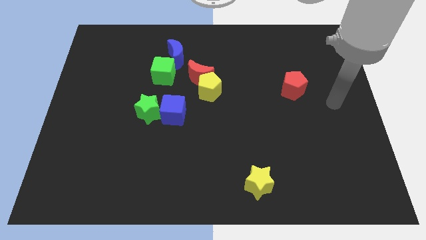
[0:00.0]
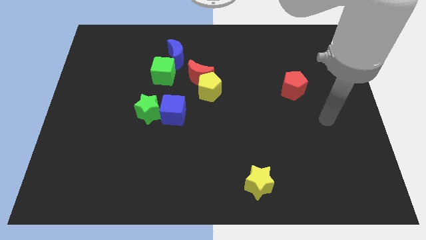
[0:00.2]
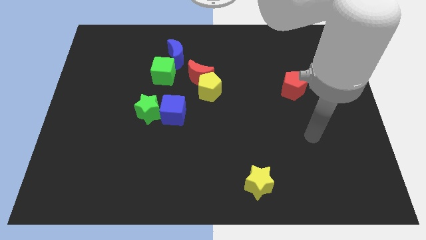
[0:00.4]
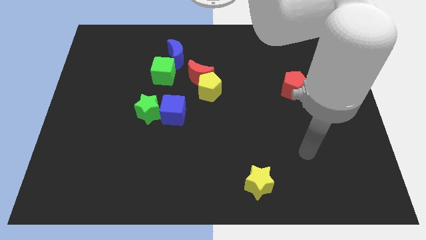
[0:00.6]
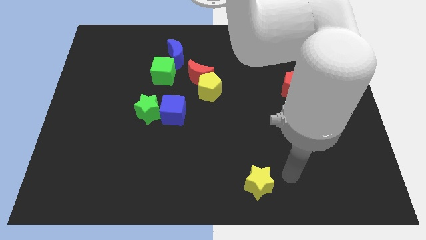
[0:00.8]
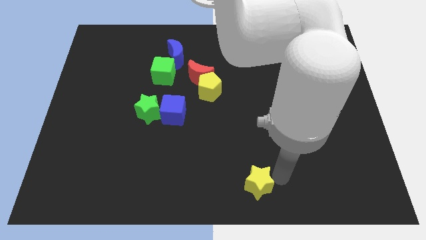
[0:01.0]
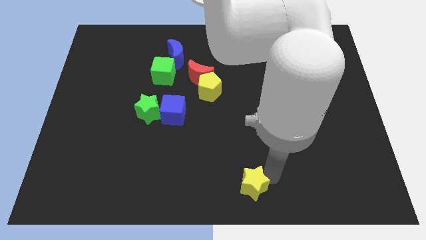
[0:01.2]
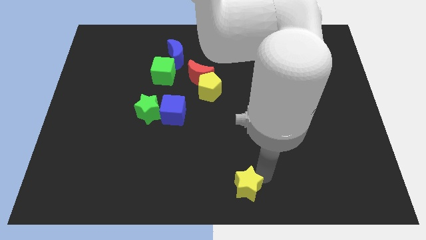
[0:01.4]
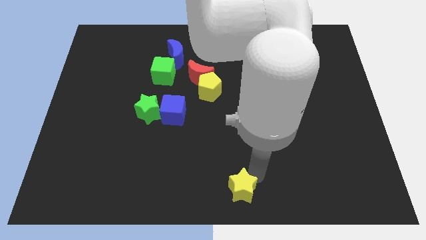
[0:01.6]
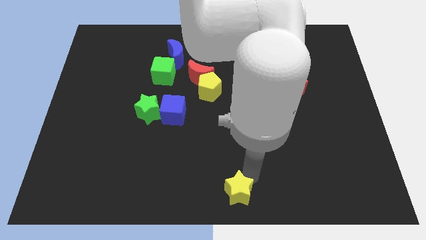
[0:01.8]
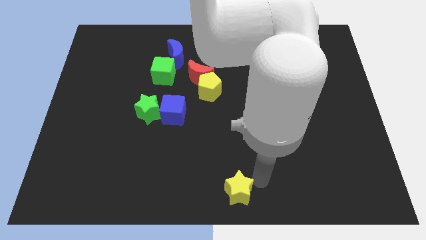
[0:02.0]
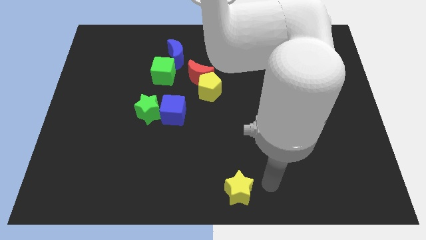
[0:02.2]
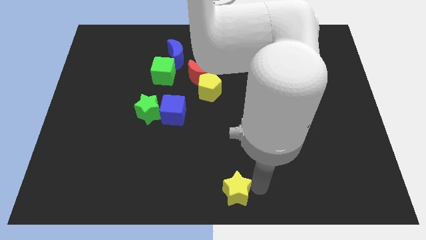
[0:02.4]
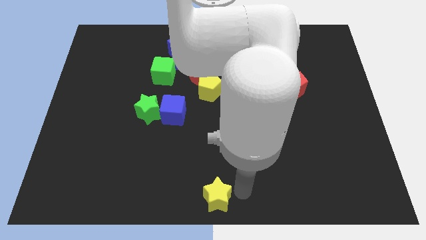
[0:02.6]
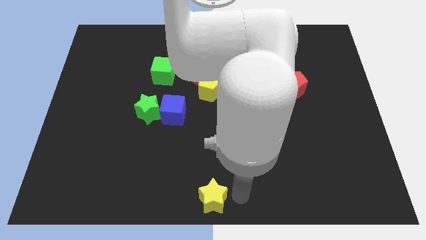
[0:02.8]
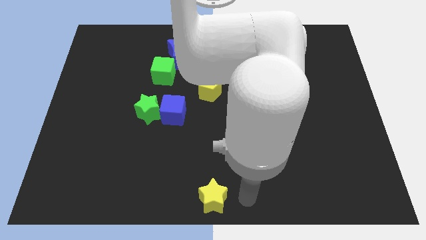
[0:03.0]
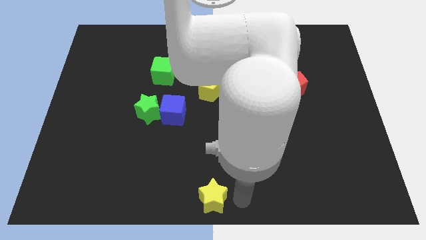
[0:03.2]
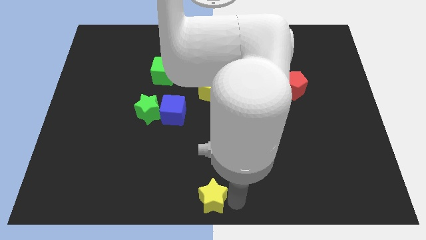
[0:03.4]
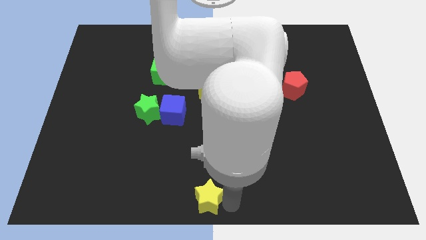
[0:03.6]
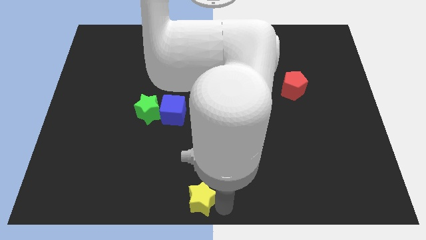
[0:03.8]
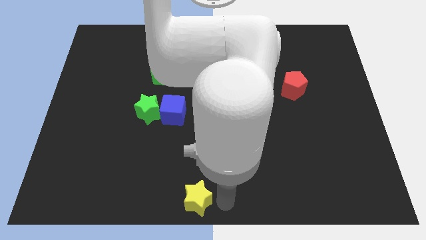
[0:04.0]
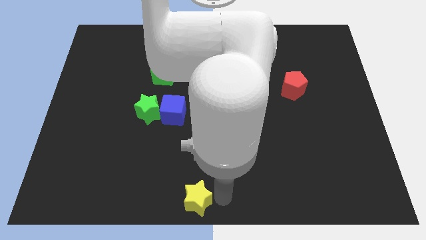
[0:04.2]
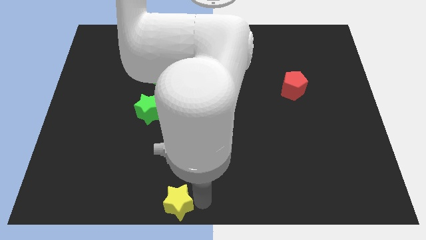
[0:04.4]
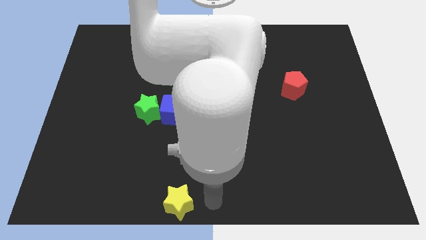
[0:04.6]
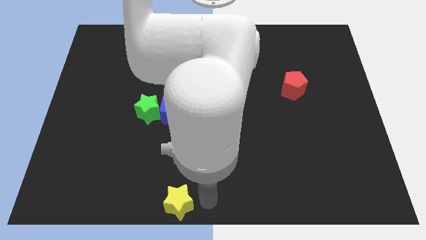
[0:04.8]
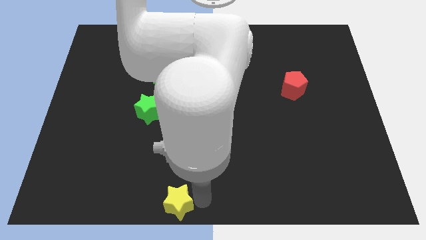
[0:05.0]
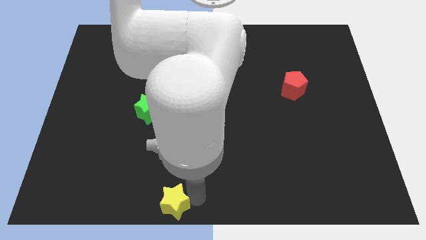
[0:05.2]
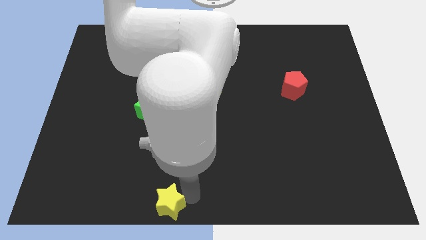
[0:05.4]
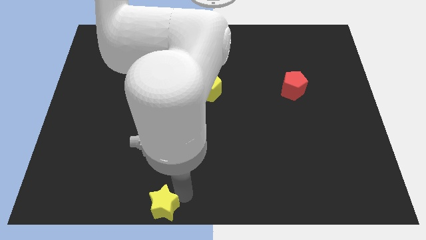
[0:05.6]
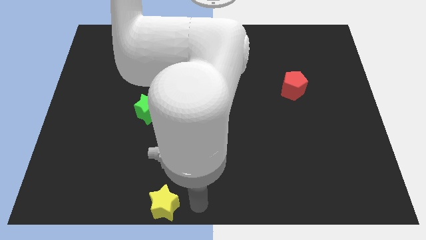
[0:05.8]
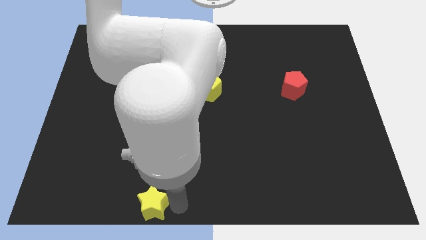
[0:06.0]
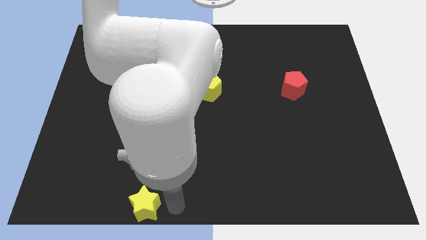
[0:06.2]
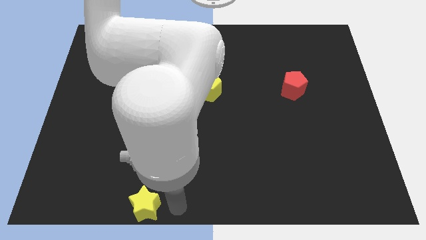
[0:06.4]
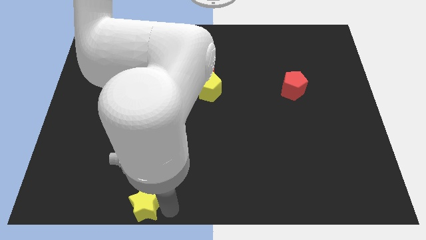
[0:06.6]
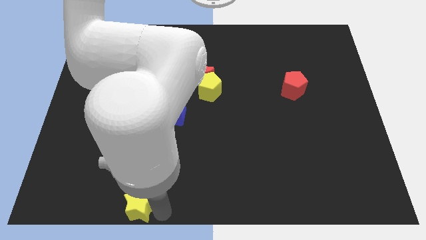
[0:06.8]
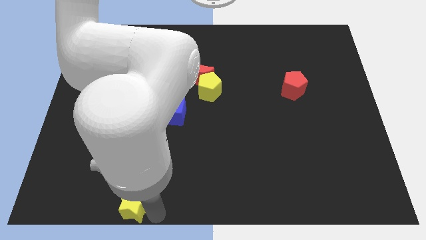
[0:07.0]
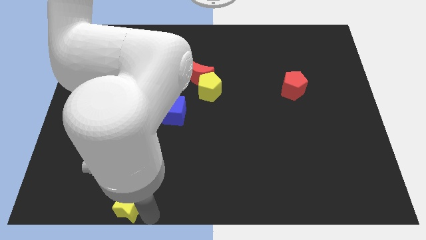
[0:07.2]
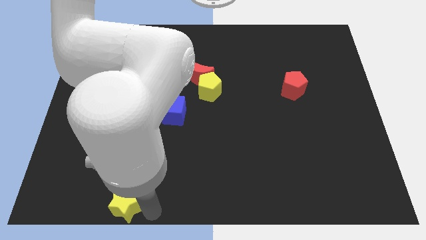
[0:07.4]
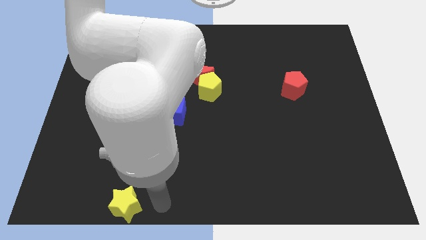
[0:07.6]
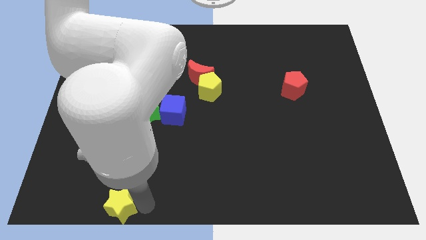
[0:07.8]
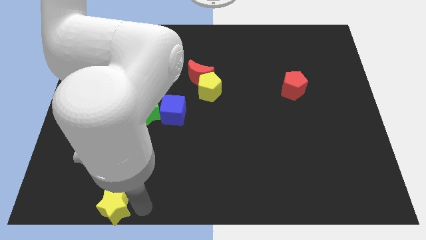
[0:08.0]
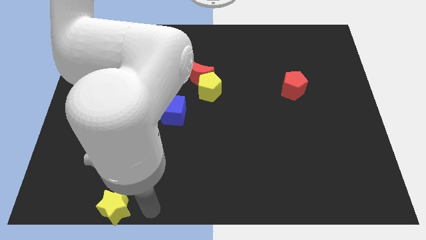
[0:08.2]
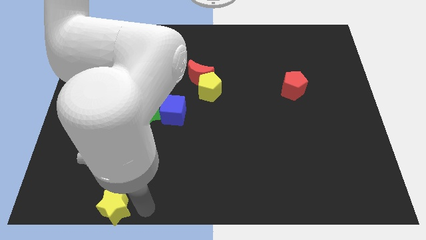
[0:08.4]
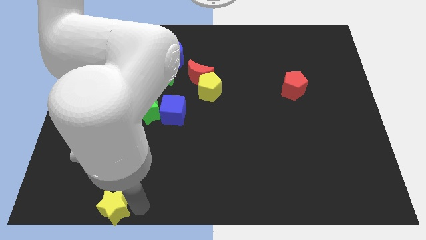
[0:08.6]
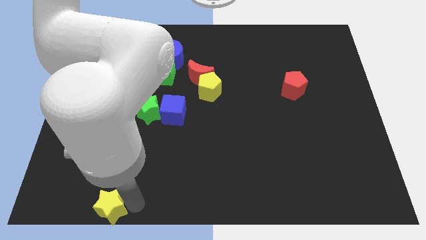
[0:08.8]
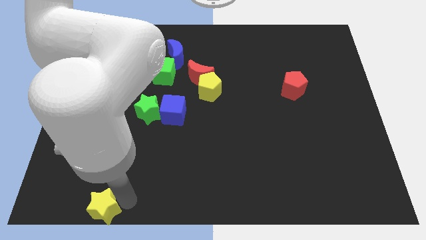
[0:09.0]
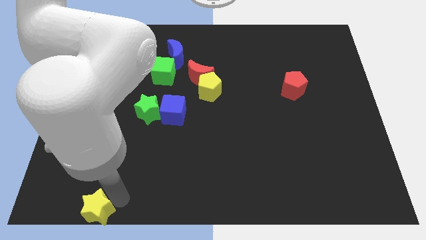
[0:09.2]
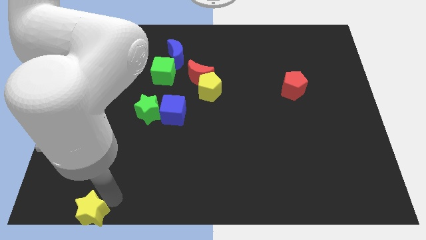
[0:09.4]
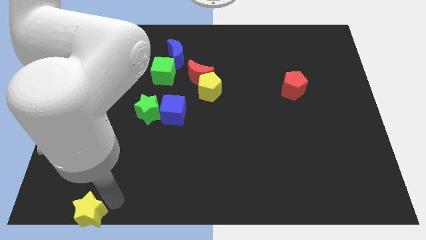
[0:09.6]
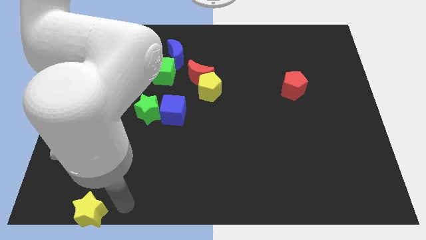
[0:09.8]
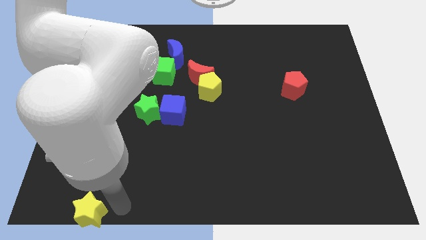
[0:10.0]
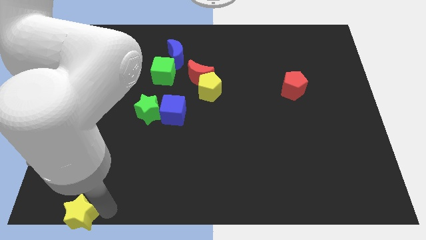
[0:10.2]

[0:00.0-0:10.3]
slide the yellow star to the bottom left

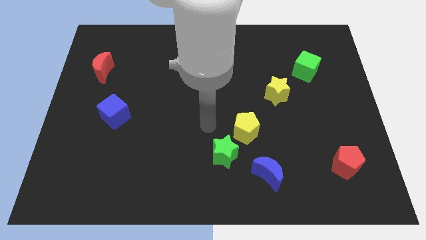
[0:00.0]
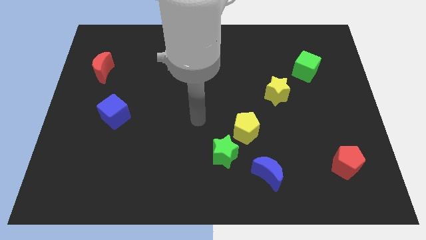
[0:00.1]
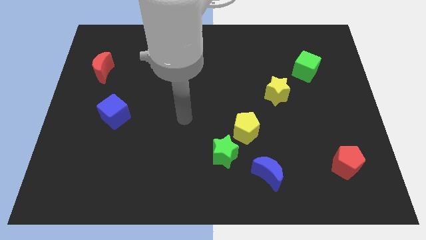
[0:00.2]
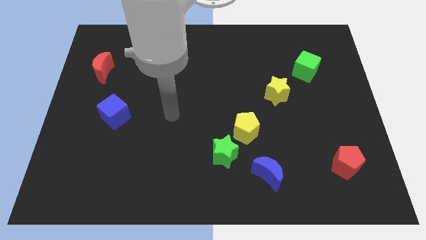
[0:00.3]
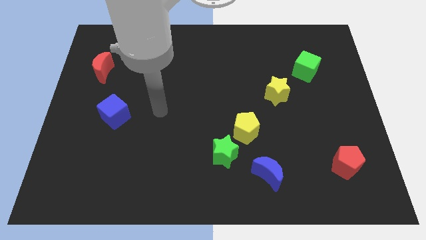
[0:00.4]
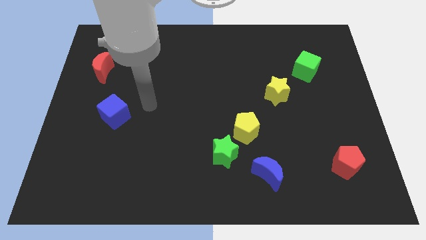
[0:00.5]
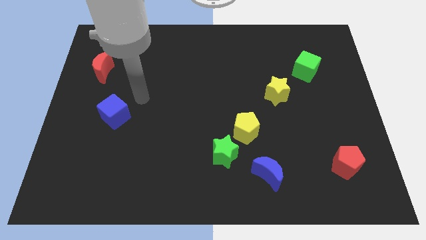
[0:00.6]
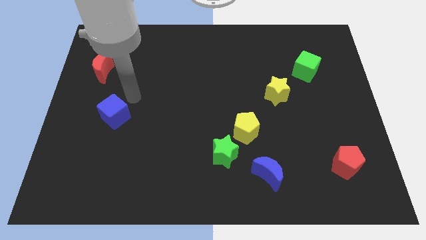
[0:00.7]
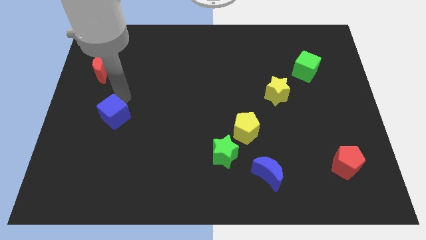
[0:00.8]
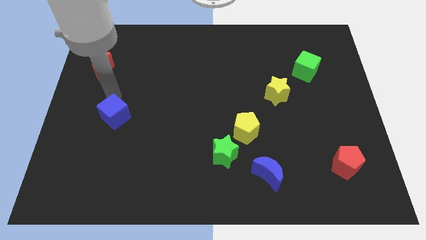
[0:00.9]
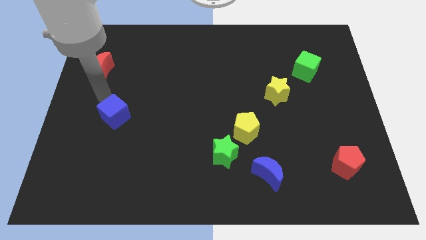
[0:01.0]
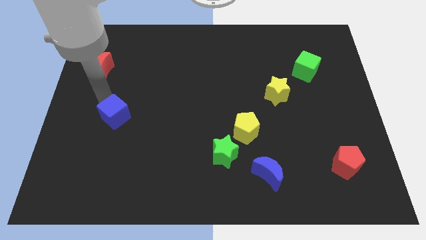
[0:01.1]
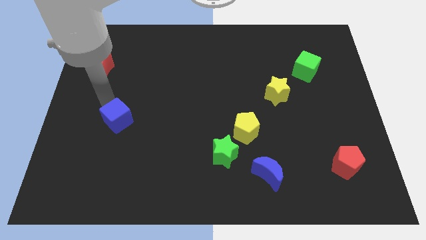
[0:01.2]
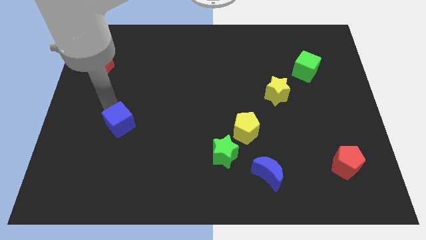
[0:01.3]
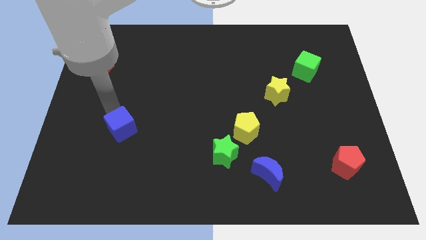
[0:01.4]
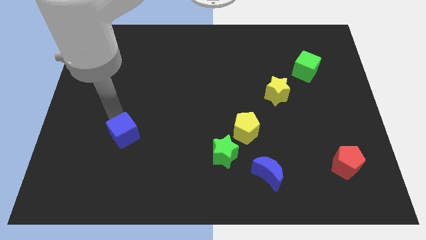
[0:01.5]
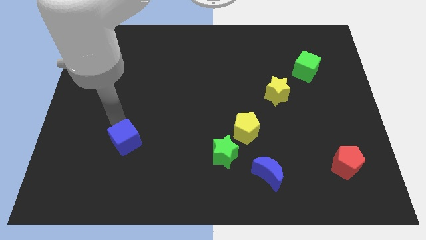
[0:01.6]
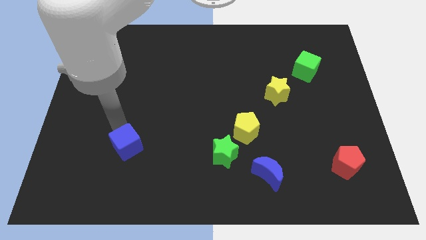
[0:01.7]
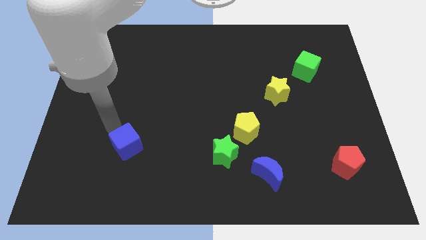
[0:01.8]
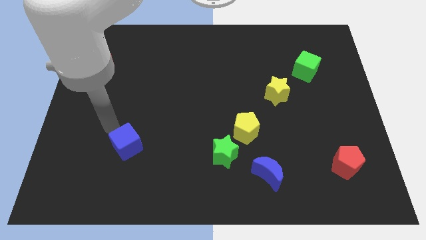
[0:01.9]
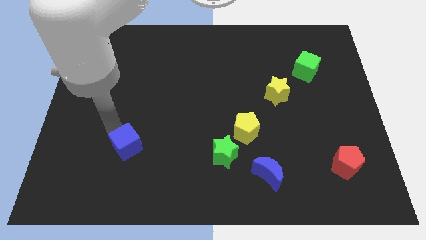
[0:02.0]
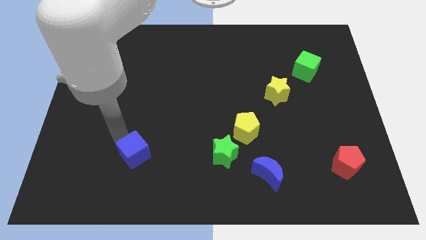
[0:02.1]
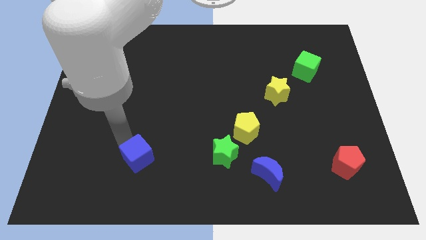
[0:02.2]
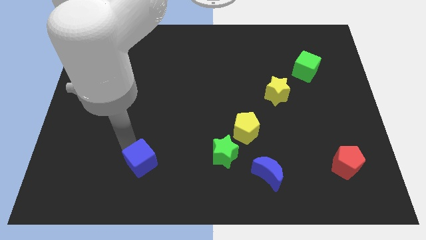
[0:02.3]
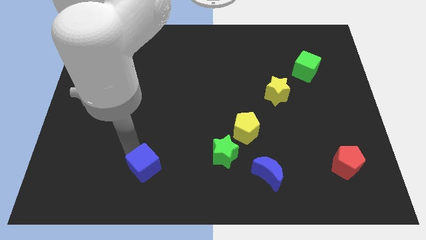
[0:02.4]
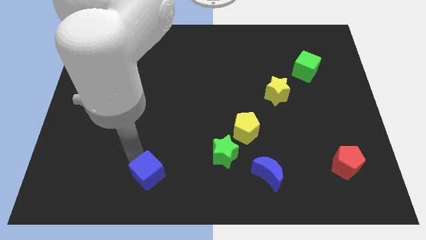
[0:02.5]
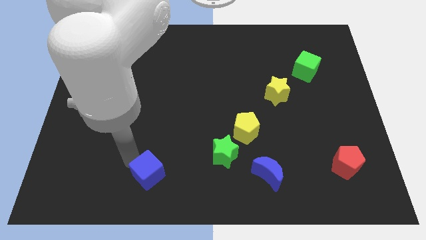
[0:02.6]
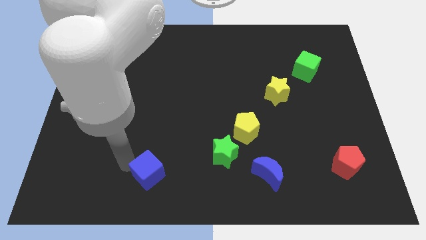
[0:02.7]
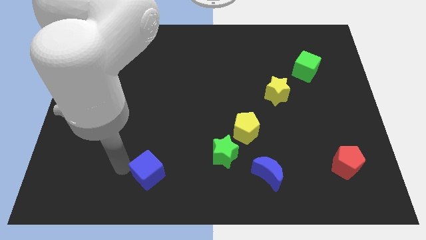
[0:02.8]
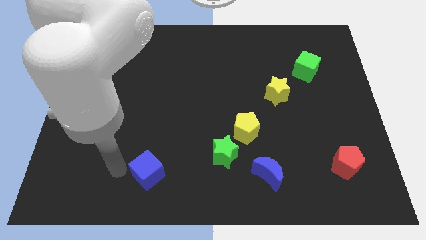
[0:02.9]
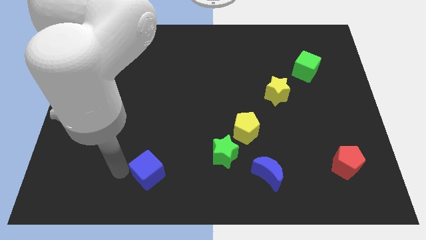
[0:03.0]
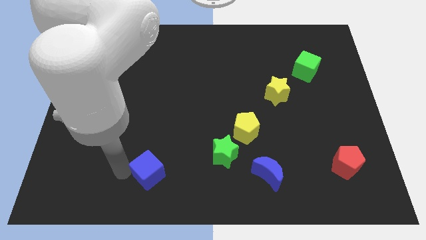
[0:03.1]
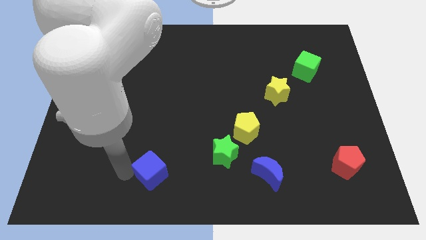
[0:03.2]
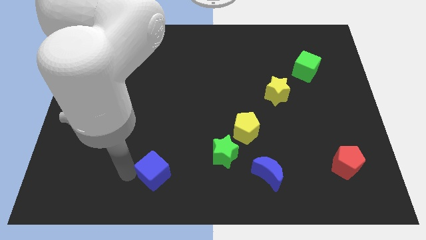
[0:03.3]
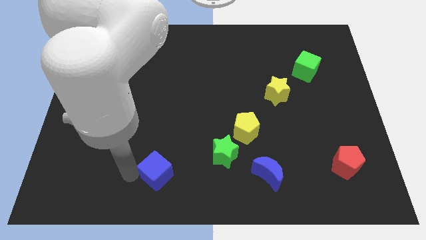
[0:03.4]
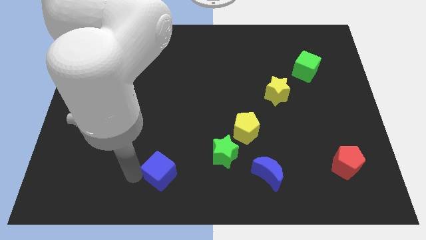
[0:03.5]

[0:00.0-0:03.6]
slide the blue cube to the bottom
